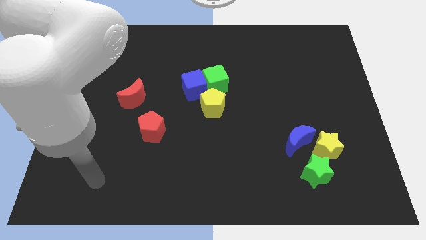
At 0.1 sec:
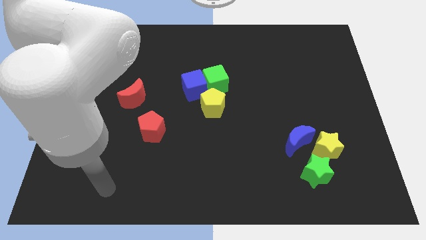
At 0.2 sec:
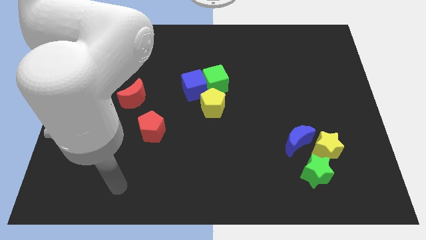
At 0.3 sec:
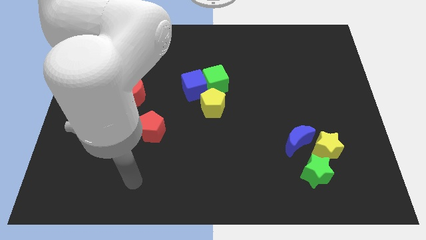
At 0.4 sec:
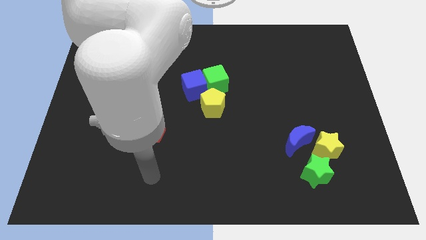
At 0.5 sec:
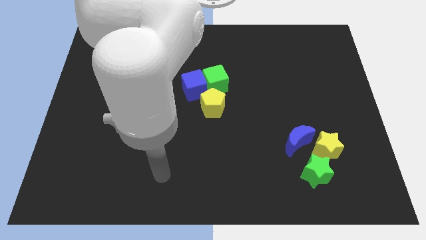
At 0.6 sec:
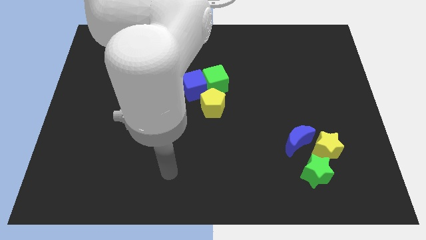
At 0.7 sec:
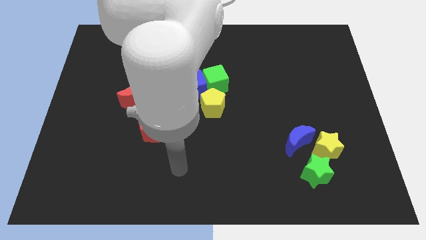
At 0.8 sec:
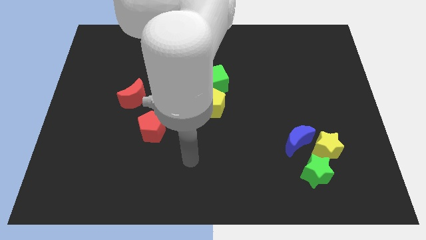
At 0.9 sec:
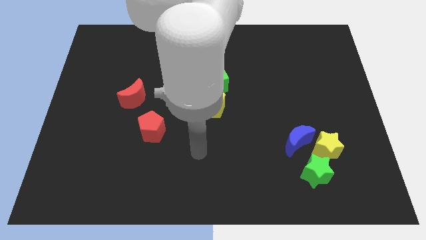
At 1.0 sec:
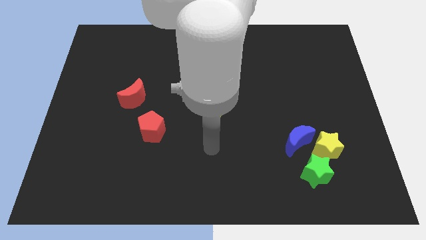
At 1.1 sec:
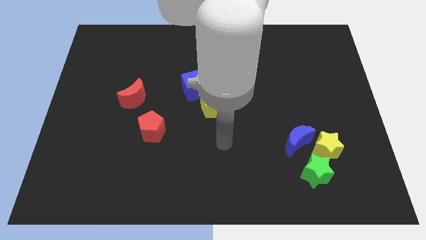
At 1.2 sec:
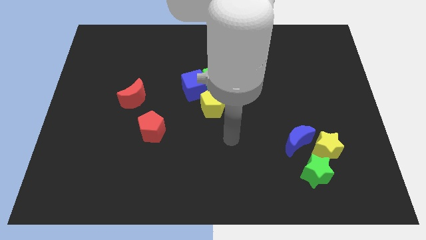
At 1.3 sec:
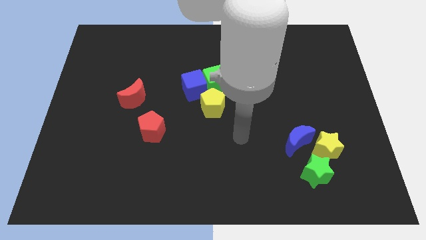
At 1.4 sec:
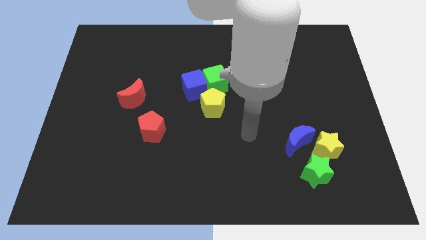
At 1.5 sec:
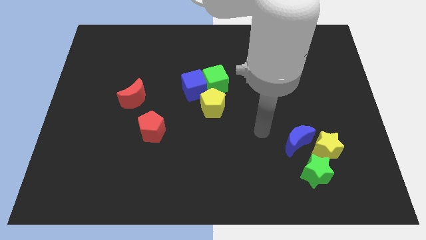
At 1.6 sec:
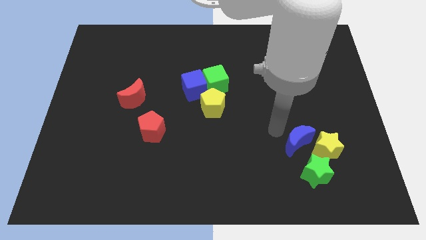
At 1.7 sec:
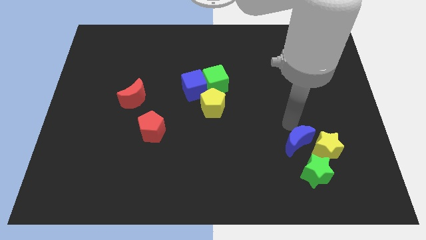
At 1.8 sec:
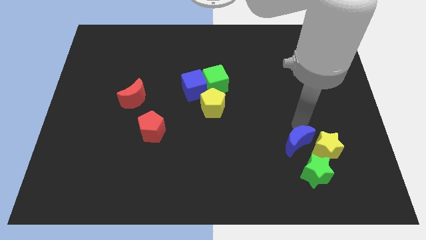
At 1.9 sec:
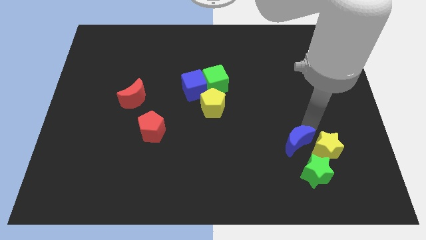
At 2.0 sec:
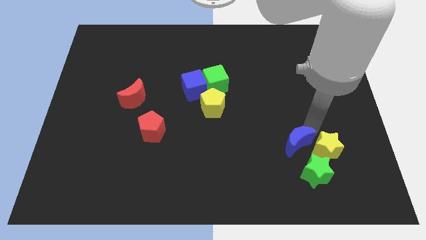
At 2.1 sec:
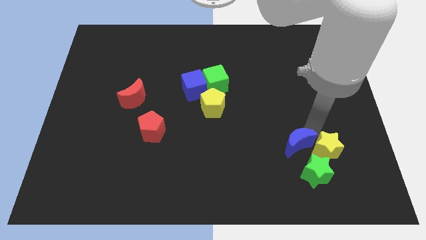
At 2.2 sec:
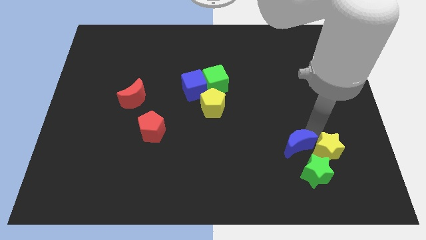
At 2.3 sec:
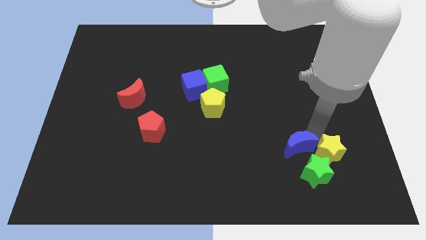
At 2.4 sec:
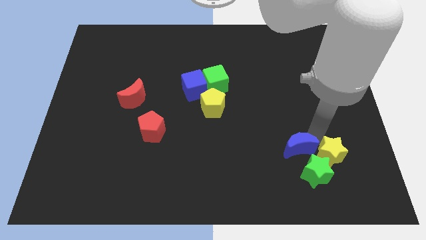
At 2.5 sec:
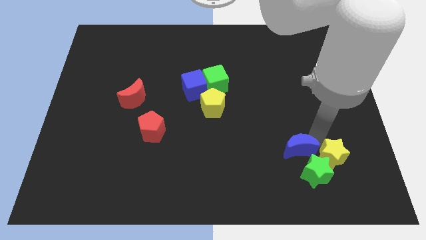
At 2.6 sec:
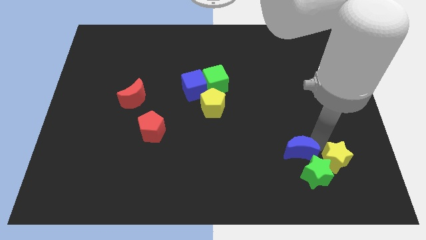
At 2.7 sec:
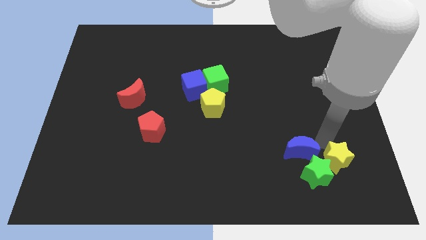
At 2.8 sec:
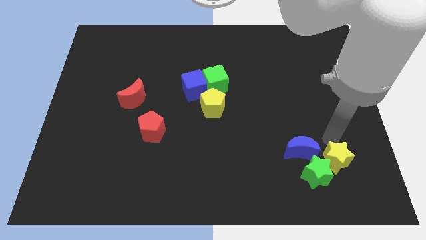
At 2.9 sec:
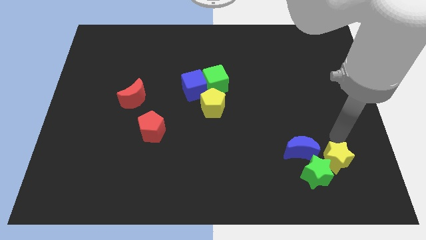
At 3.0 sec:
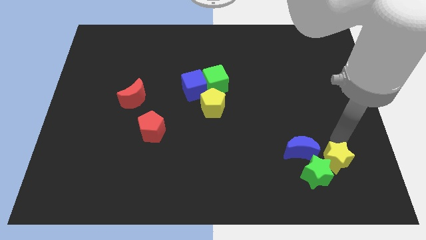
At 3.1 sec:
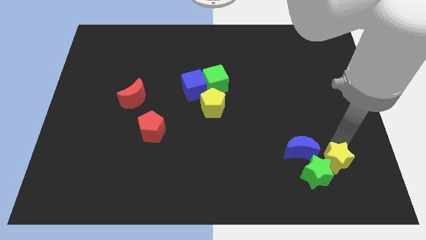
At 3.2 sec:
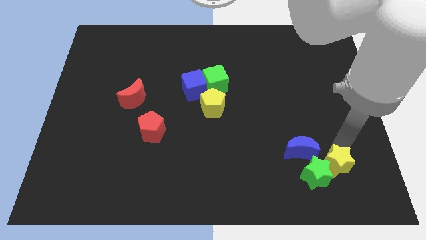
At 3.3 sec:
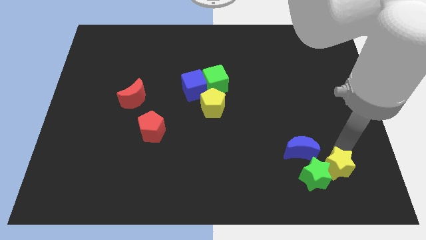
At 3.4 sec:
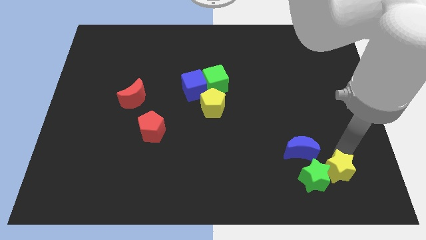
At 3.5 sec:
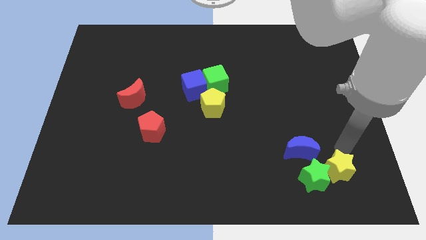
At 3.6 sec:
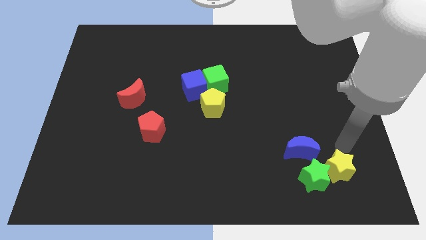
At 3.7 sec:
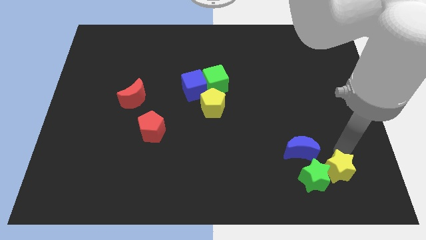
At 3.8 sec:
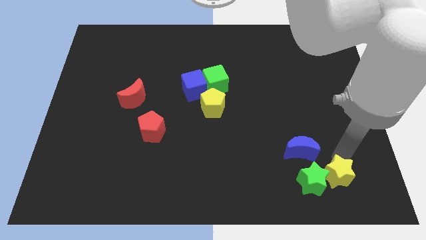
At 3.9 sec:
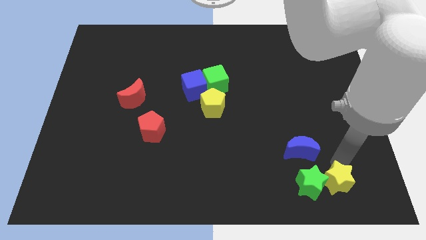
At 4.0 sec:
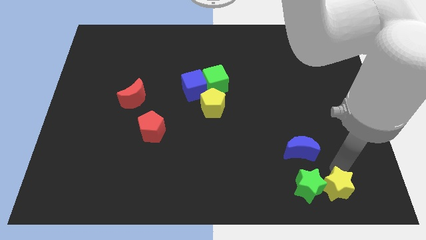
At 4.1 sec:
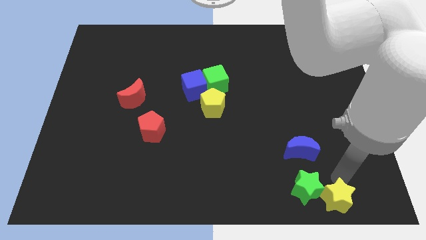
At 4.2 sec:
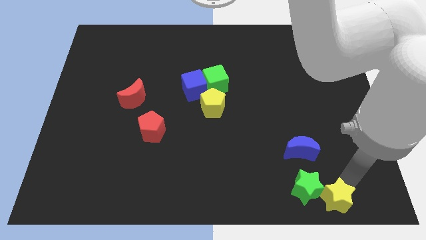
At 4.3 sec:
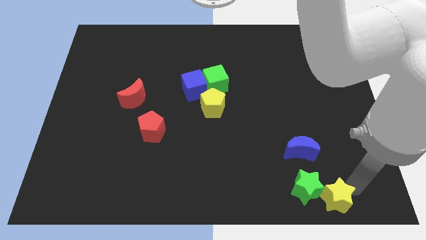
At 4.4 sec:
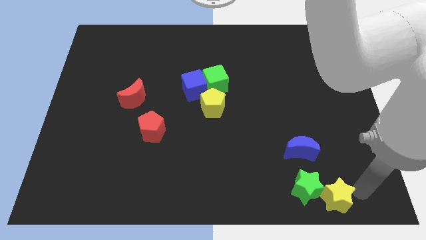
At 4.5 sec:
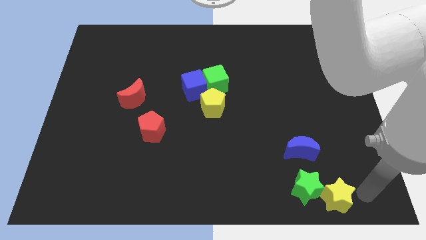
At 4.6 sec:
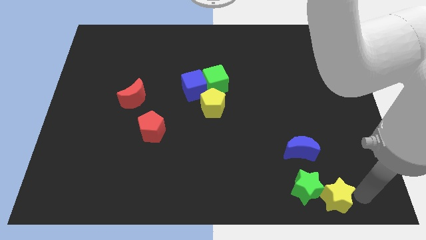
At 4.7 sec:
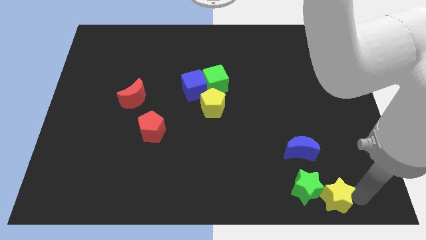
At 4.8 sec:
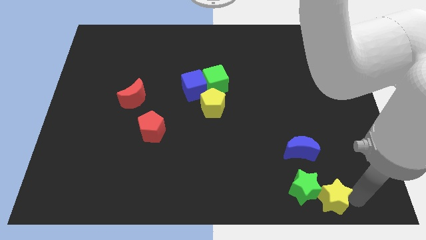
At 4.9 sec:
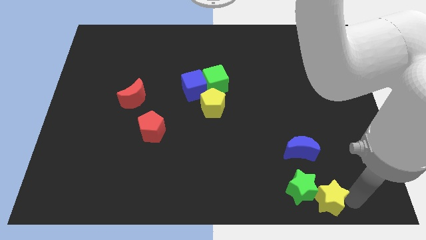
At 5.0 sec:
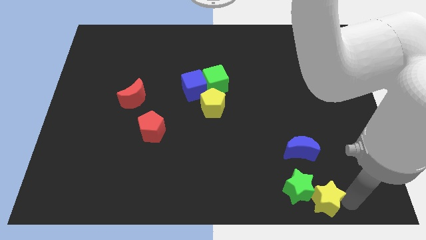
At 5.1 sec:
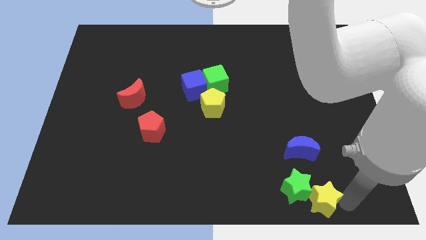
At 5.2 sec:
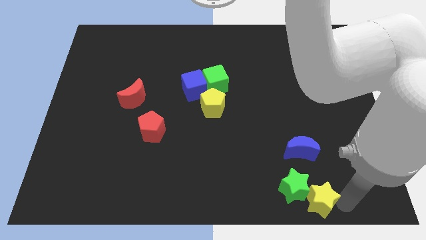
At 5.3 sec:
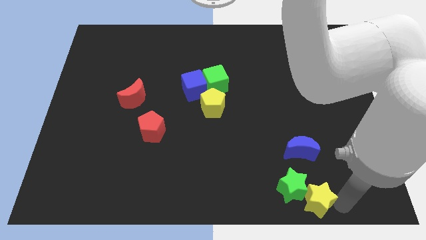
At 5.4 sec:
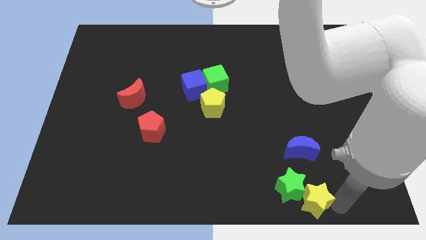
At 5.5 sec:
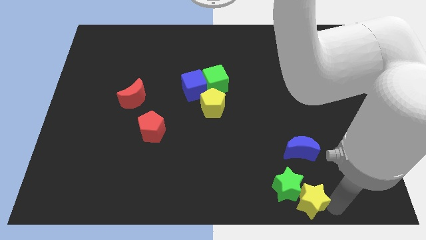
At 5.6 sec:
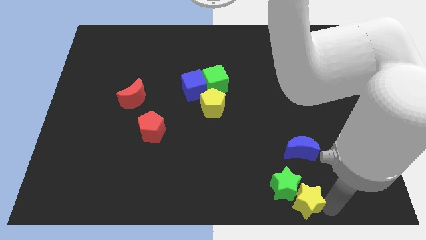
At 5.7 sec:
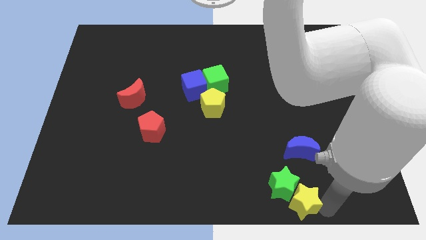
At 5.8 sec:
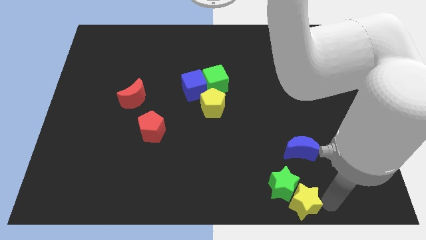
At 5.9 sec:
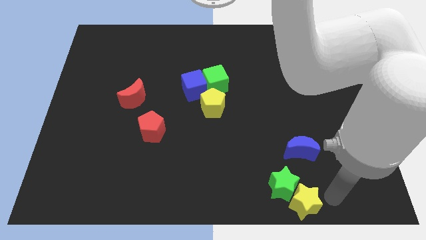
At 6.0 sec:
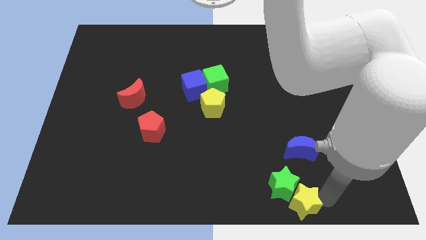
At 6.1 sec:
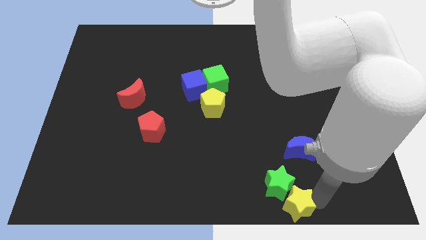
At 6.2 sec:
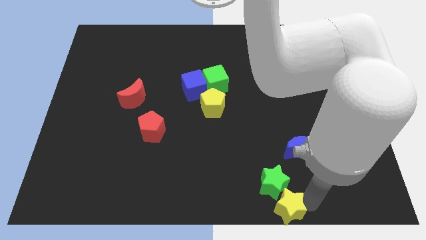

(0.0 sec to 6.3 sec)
slide the yellow star to the bottom

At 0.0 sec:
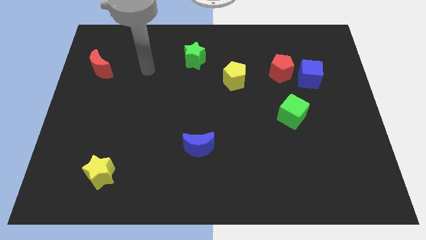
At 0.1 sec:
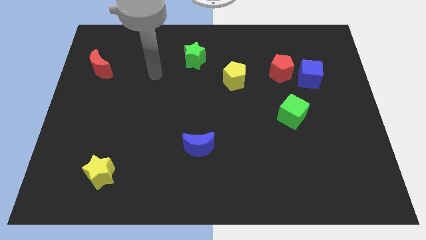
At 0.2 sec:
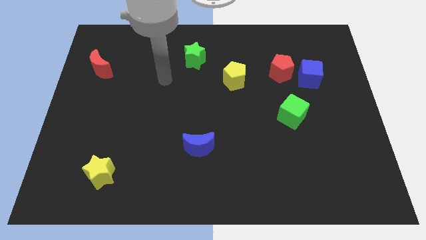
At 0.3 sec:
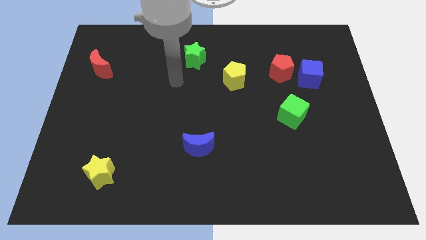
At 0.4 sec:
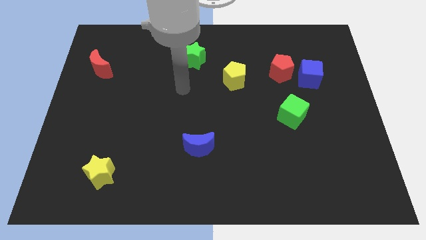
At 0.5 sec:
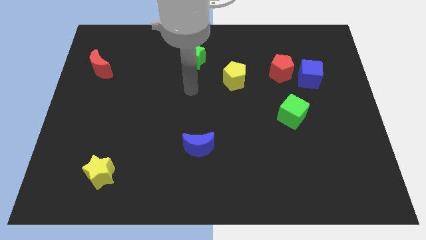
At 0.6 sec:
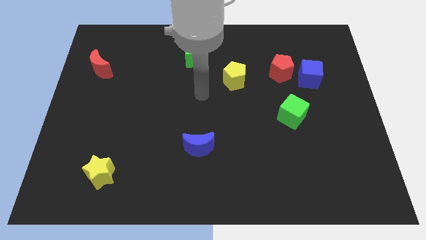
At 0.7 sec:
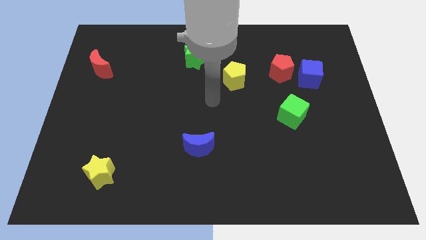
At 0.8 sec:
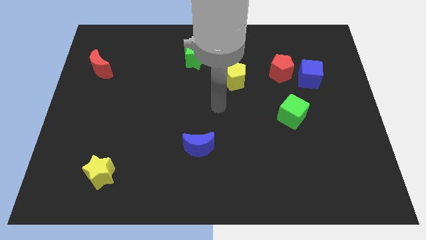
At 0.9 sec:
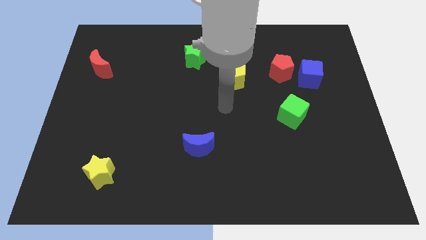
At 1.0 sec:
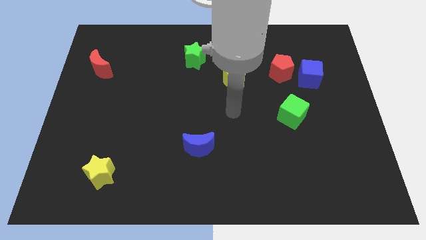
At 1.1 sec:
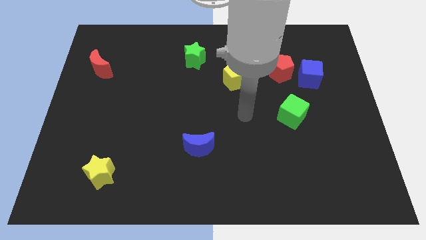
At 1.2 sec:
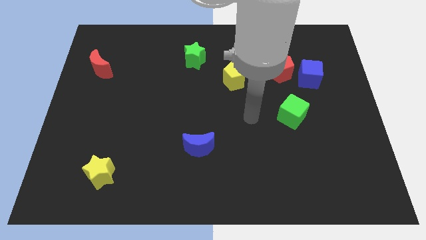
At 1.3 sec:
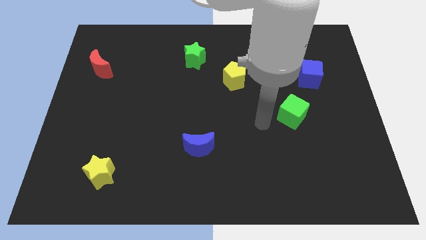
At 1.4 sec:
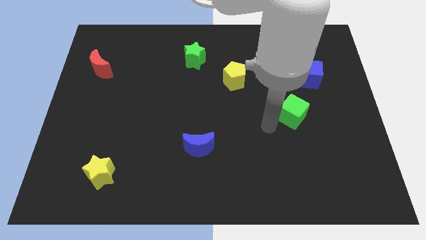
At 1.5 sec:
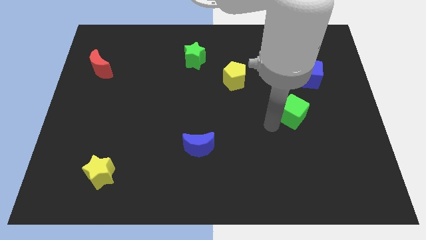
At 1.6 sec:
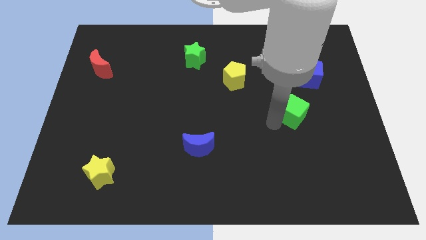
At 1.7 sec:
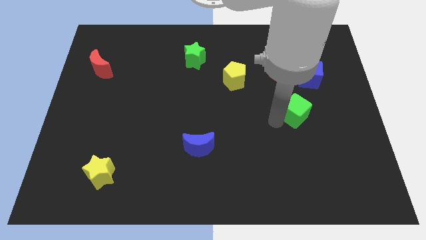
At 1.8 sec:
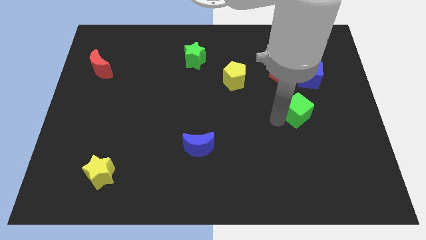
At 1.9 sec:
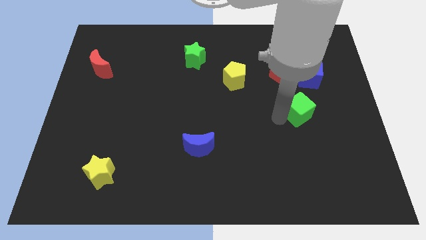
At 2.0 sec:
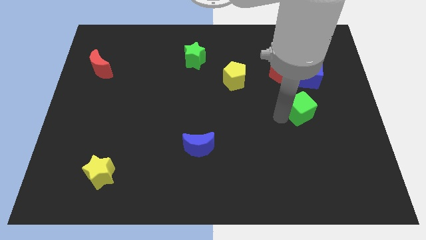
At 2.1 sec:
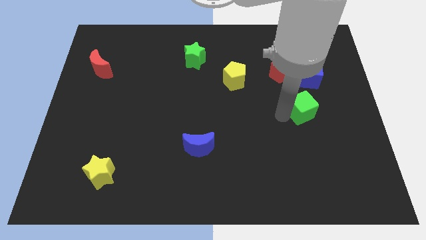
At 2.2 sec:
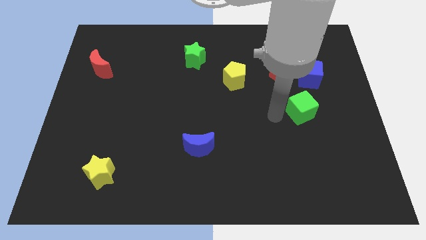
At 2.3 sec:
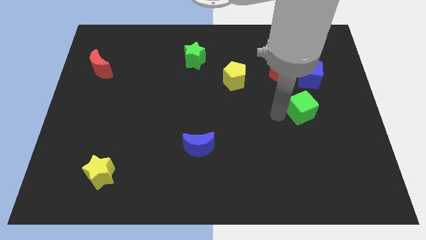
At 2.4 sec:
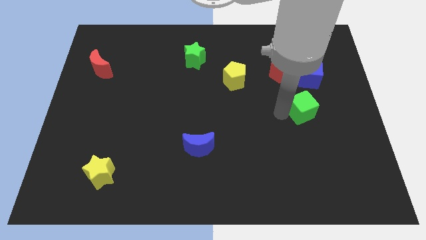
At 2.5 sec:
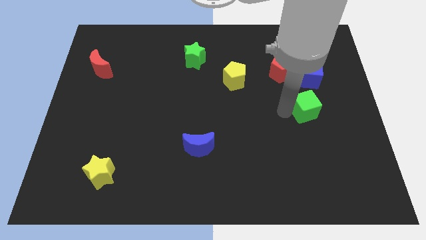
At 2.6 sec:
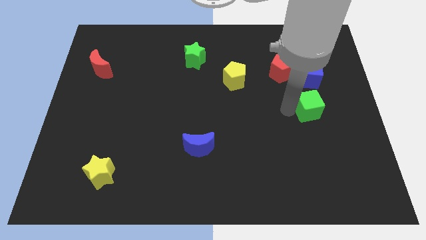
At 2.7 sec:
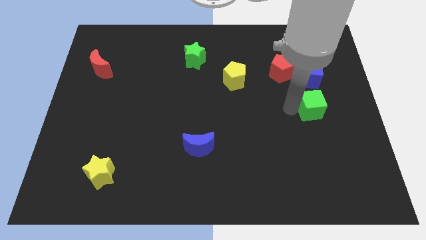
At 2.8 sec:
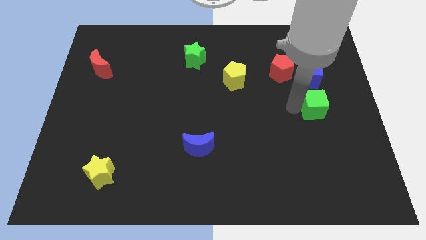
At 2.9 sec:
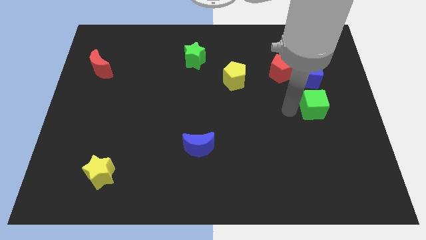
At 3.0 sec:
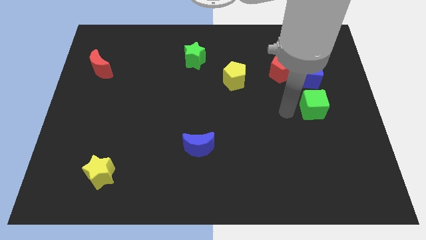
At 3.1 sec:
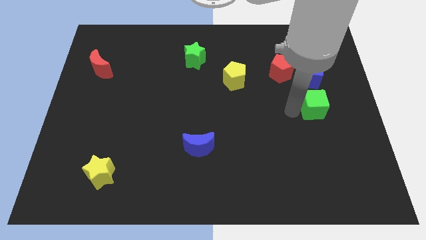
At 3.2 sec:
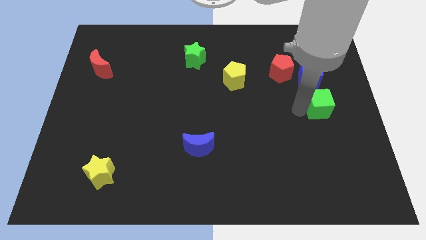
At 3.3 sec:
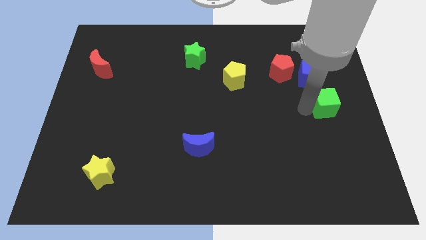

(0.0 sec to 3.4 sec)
slide the green cube to the center right
